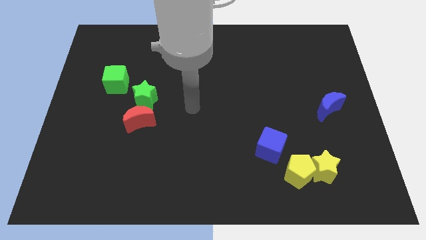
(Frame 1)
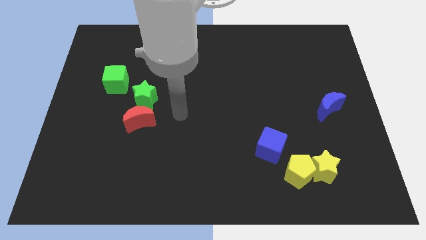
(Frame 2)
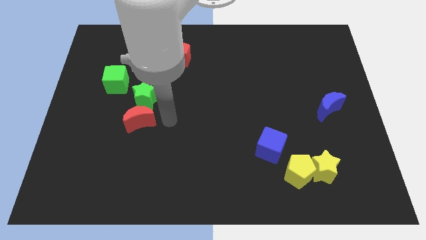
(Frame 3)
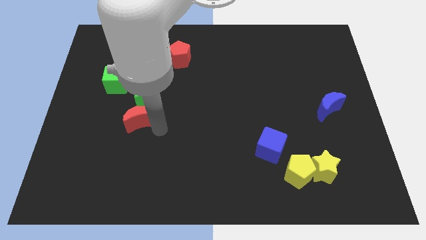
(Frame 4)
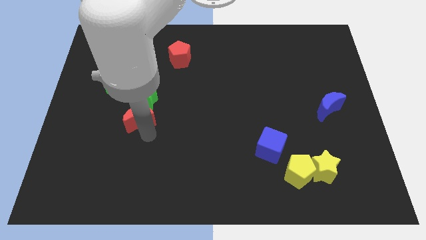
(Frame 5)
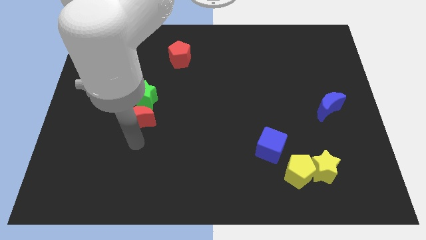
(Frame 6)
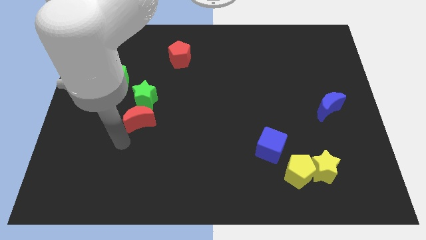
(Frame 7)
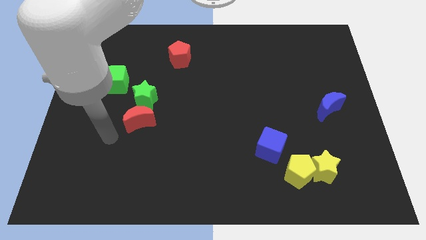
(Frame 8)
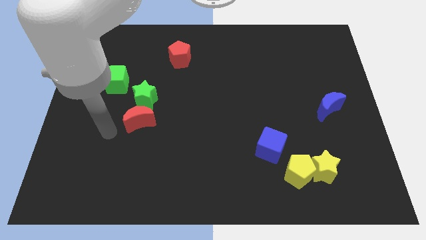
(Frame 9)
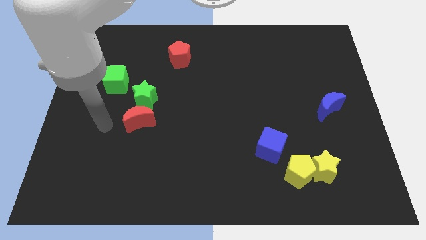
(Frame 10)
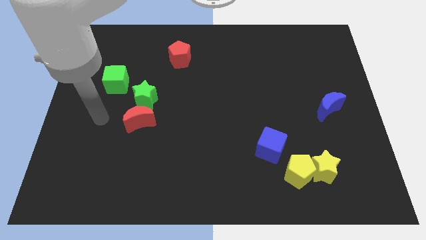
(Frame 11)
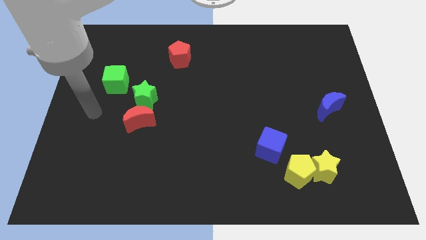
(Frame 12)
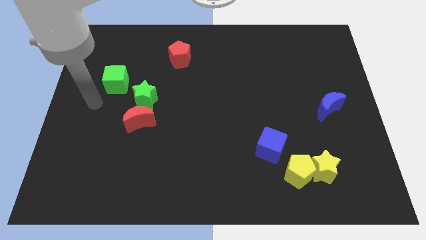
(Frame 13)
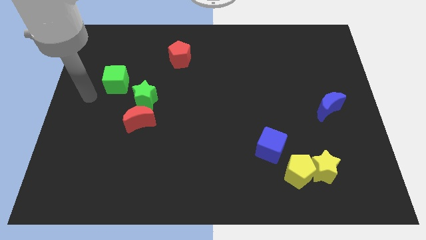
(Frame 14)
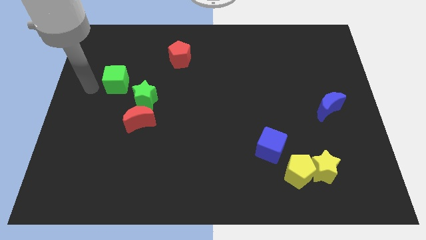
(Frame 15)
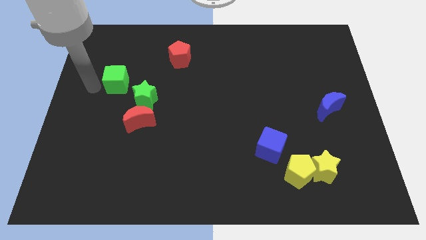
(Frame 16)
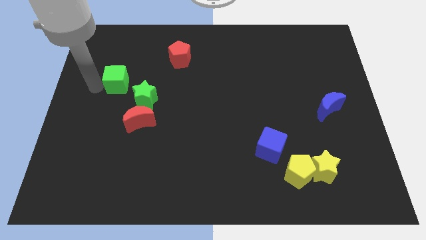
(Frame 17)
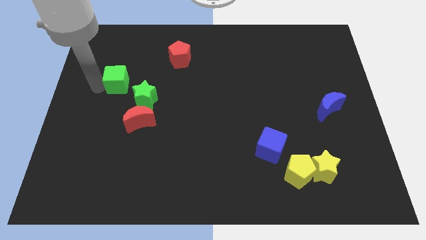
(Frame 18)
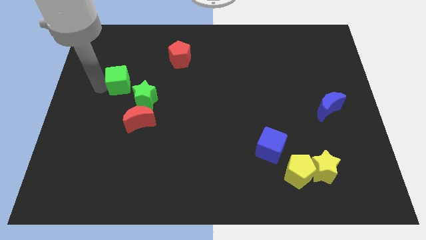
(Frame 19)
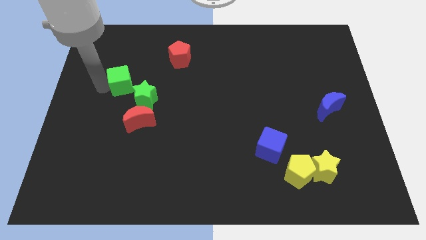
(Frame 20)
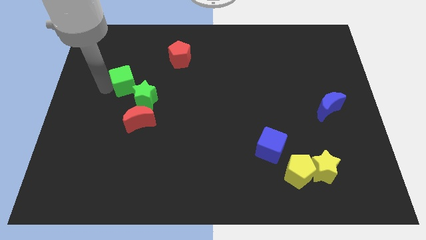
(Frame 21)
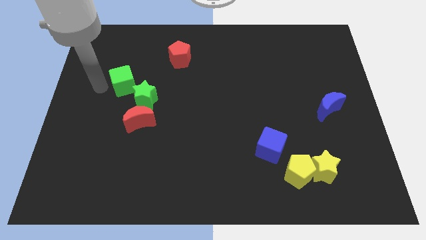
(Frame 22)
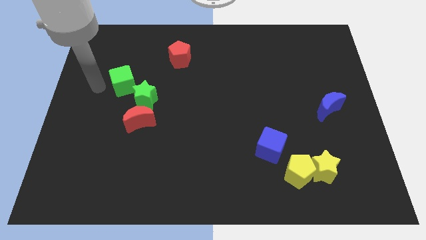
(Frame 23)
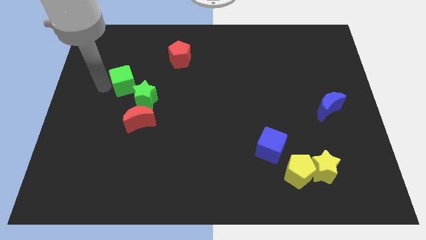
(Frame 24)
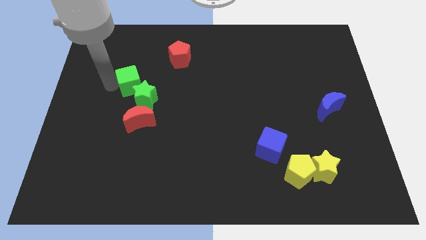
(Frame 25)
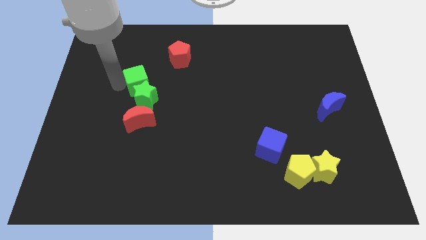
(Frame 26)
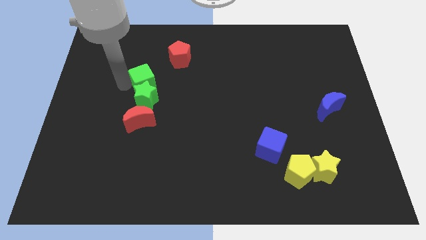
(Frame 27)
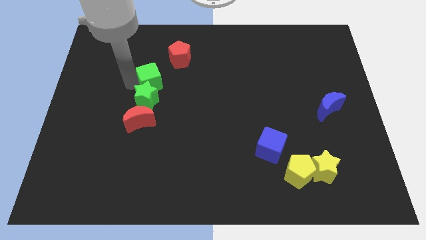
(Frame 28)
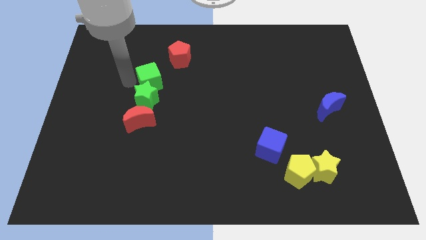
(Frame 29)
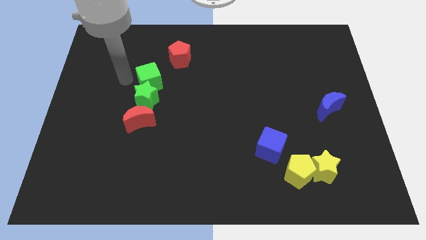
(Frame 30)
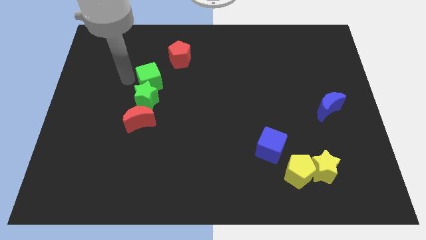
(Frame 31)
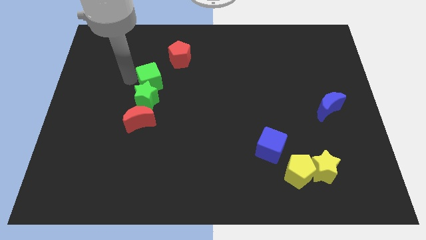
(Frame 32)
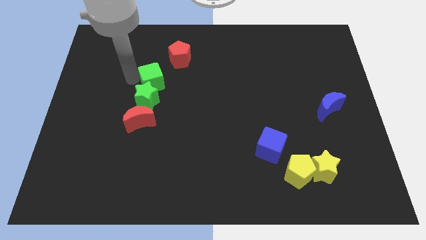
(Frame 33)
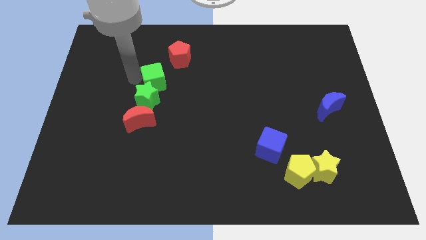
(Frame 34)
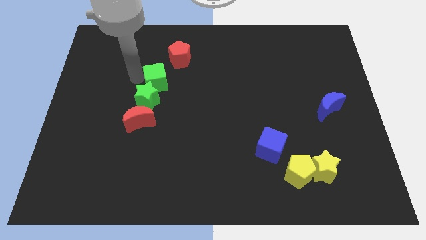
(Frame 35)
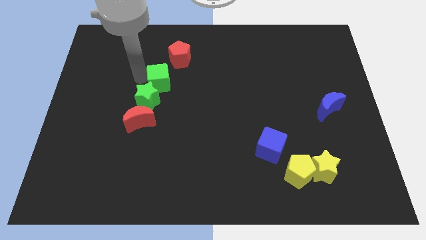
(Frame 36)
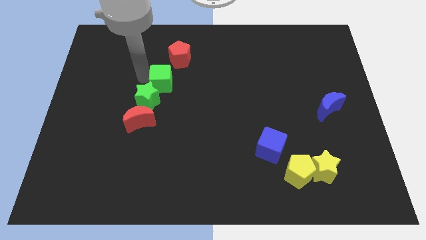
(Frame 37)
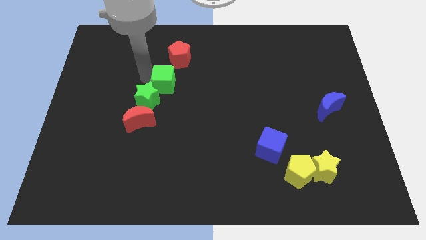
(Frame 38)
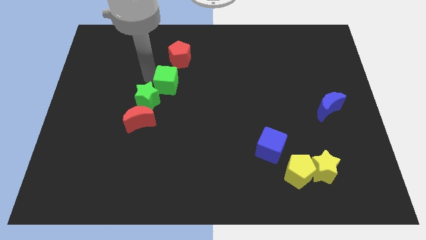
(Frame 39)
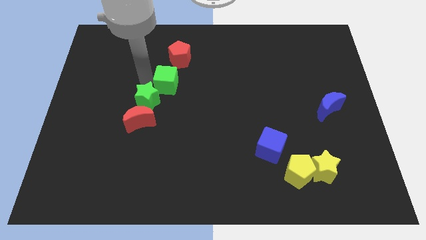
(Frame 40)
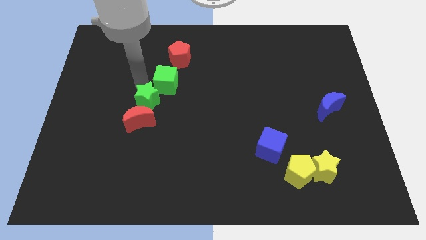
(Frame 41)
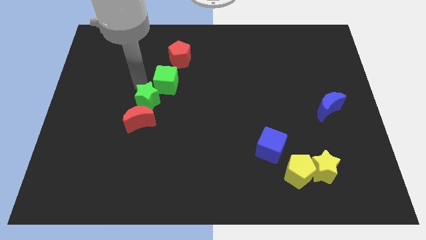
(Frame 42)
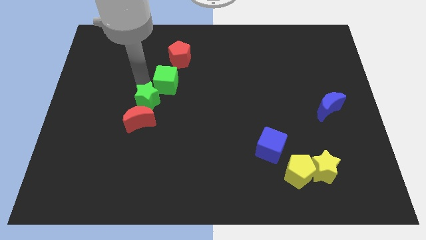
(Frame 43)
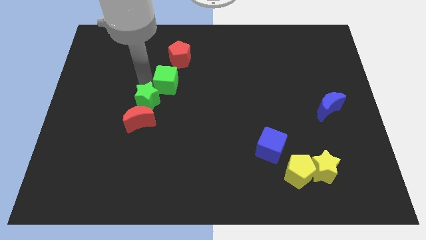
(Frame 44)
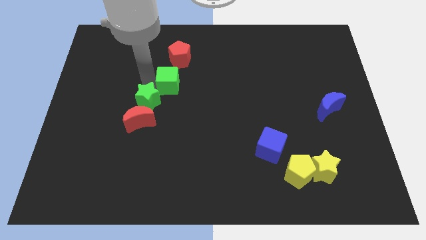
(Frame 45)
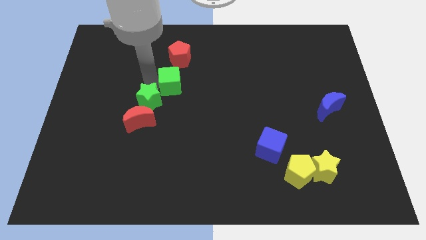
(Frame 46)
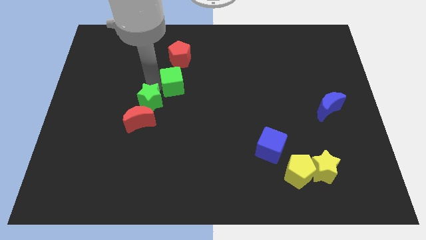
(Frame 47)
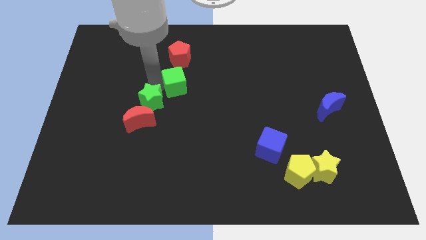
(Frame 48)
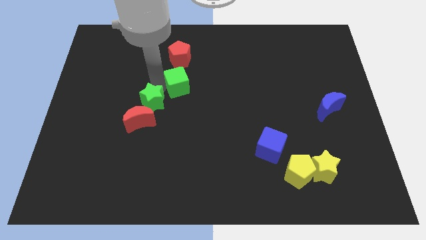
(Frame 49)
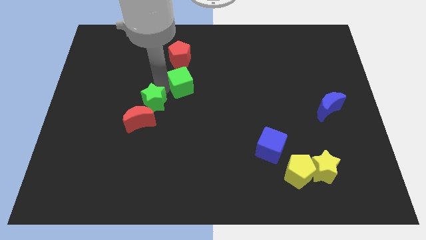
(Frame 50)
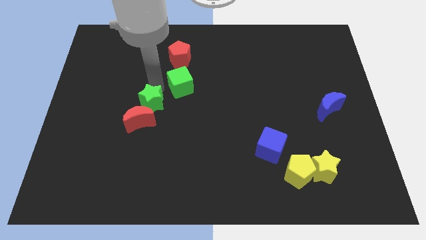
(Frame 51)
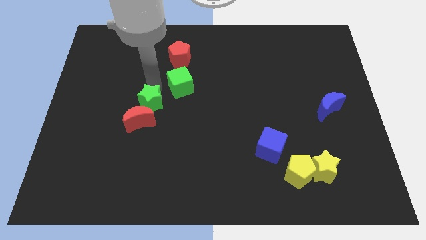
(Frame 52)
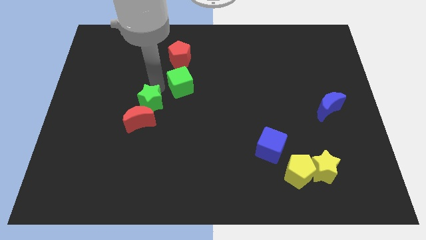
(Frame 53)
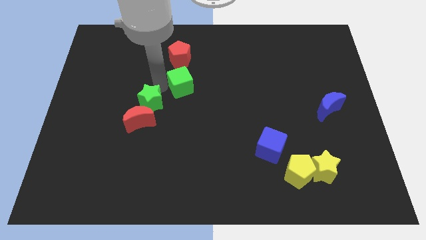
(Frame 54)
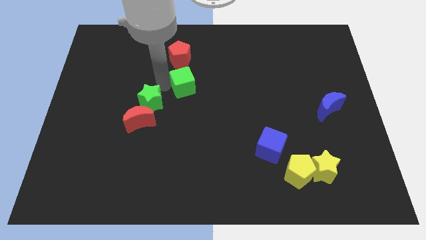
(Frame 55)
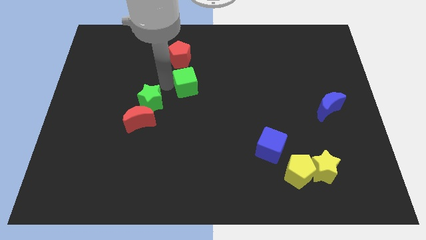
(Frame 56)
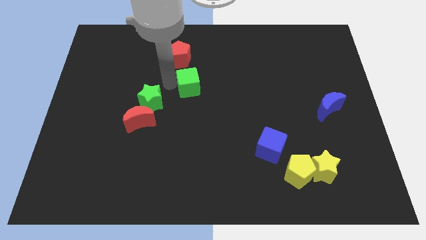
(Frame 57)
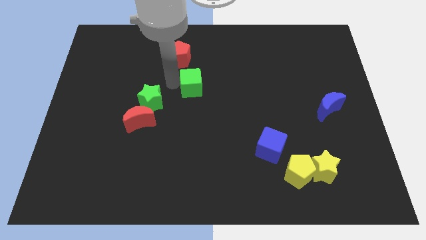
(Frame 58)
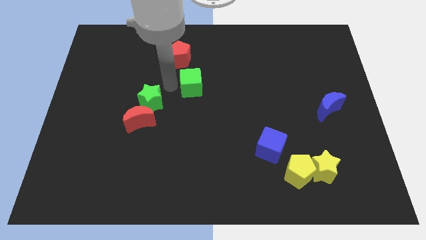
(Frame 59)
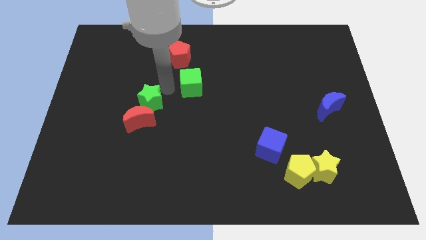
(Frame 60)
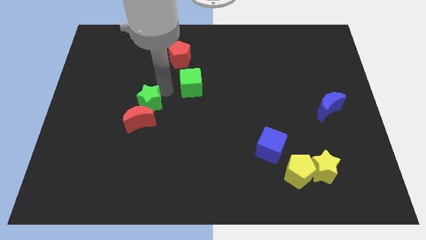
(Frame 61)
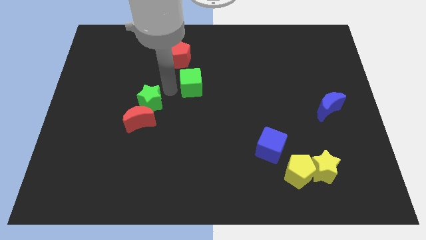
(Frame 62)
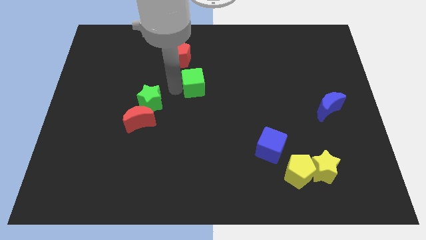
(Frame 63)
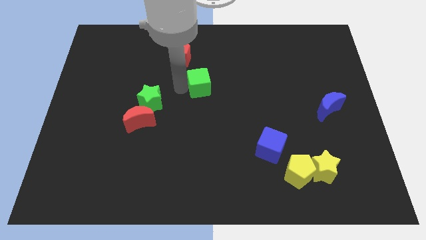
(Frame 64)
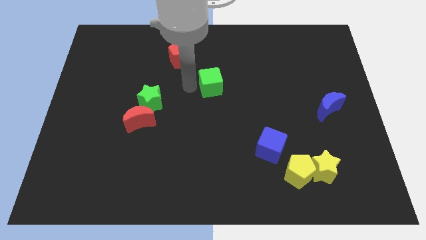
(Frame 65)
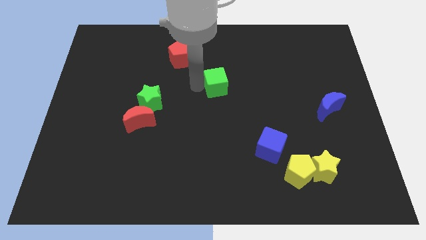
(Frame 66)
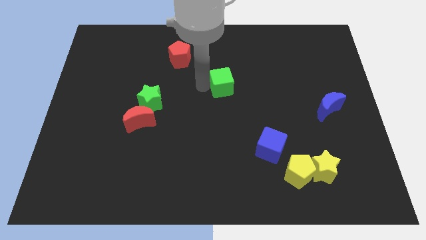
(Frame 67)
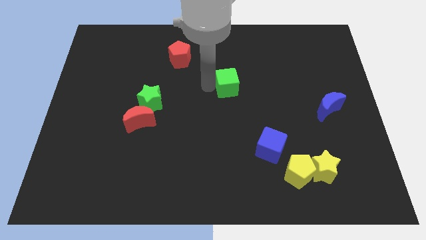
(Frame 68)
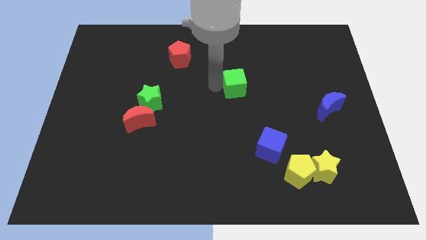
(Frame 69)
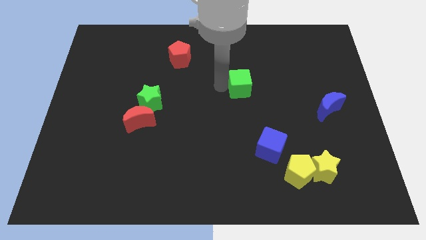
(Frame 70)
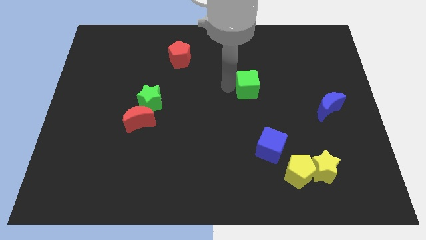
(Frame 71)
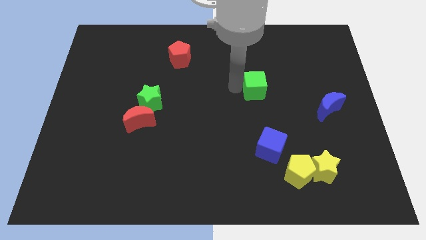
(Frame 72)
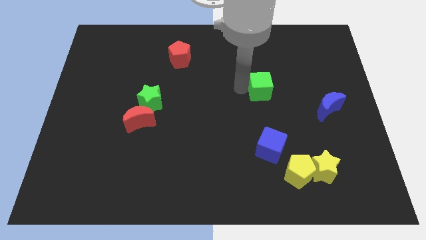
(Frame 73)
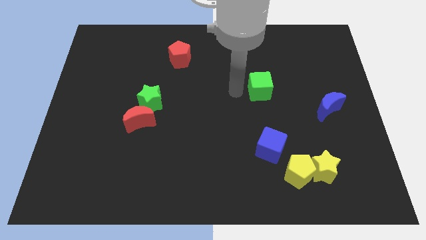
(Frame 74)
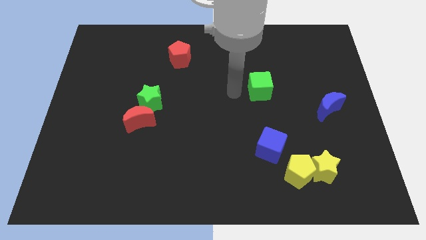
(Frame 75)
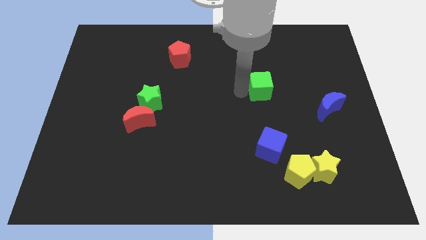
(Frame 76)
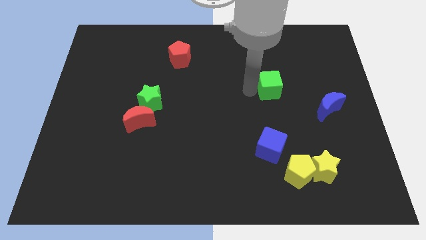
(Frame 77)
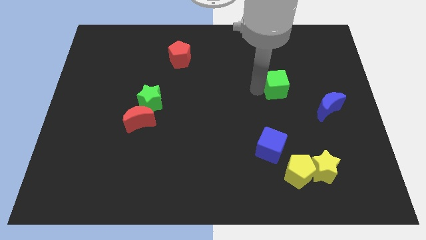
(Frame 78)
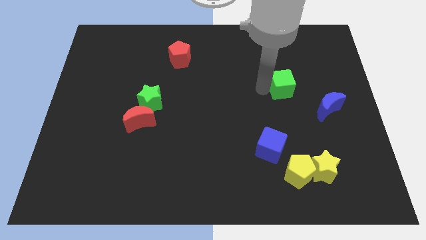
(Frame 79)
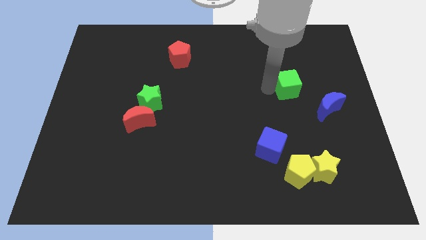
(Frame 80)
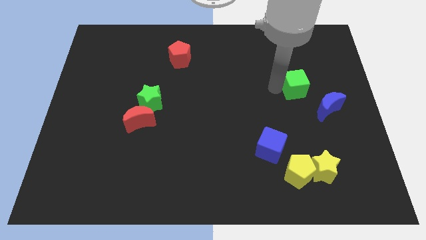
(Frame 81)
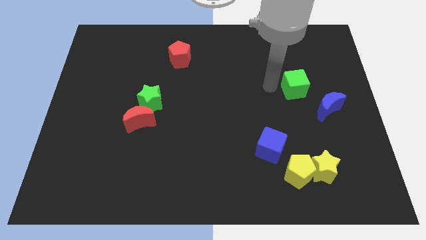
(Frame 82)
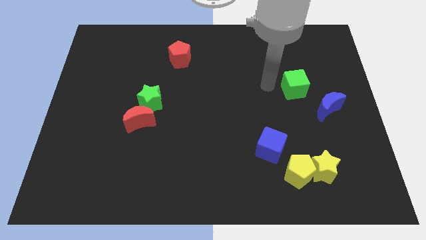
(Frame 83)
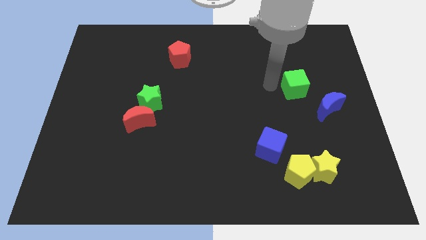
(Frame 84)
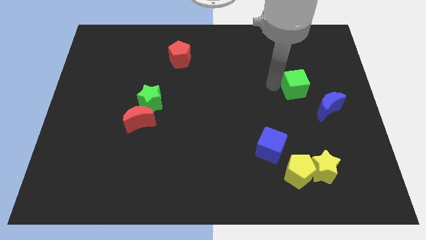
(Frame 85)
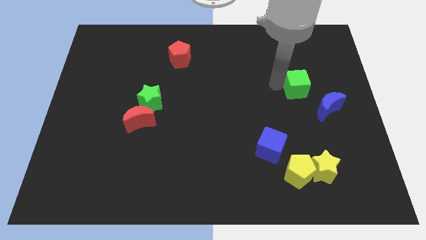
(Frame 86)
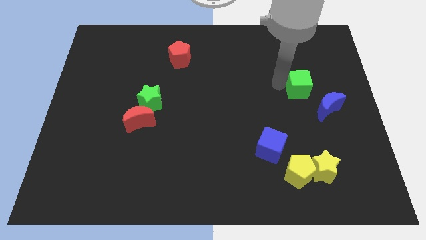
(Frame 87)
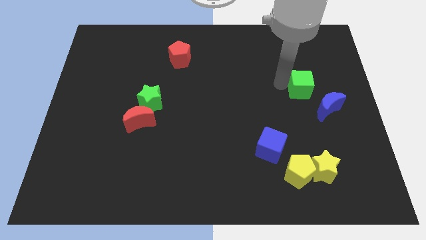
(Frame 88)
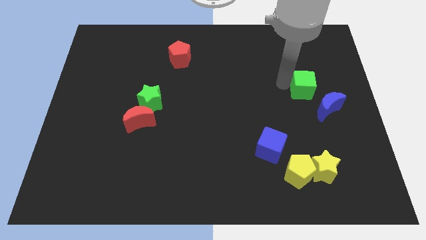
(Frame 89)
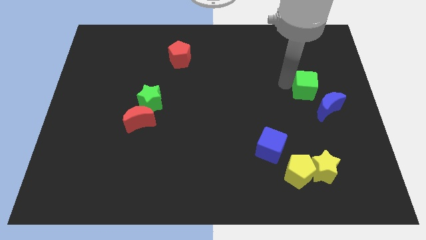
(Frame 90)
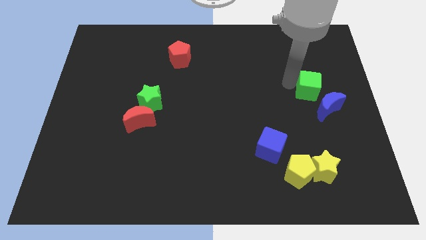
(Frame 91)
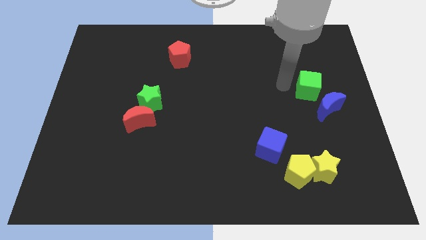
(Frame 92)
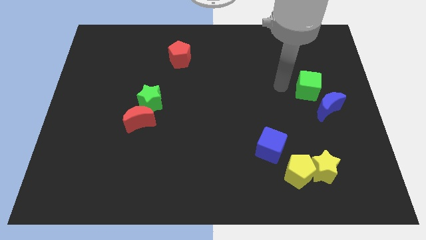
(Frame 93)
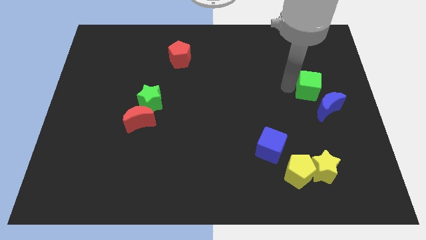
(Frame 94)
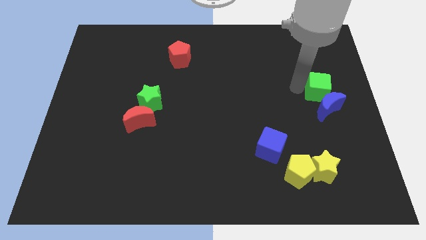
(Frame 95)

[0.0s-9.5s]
slide the green cube to the right side
